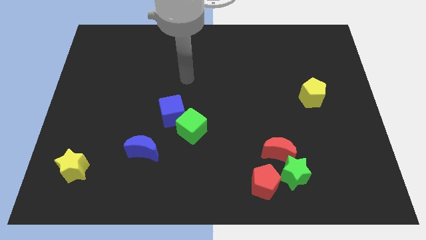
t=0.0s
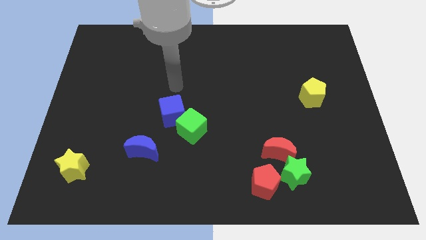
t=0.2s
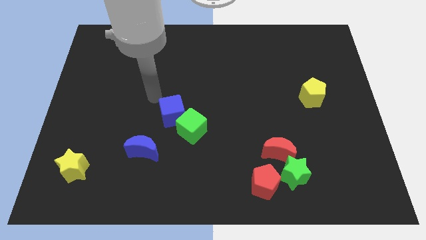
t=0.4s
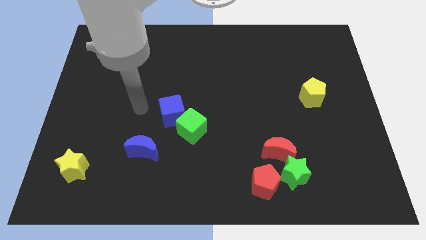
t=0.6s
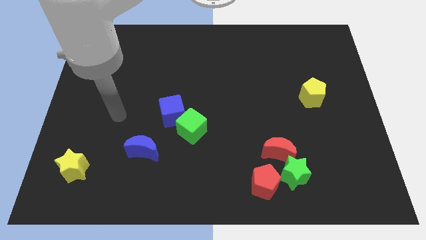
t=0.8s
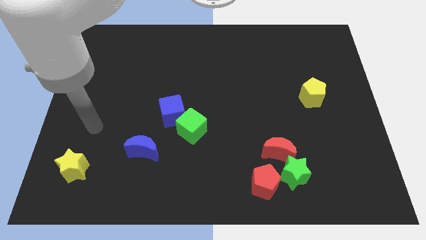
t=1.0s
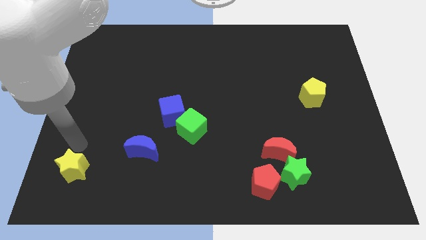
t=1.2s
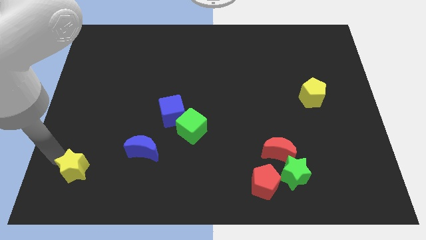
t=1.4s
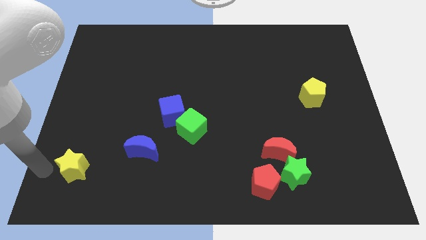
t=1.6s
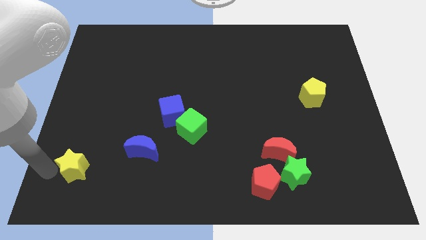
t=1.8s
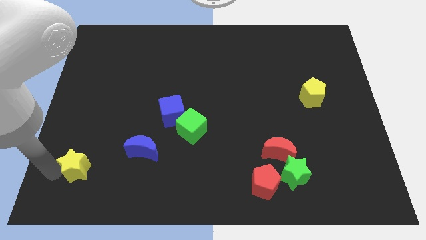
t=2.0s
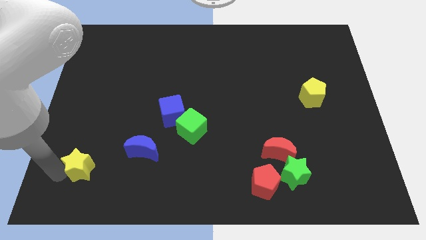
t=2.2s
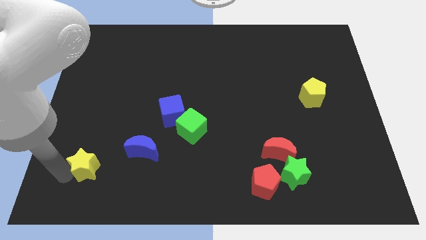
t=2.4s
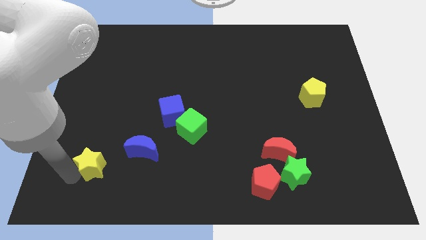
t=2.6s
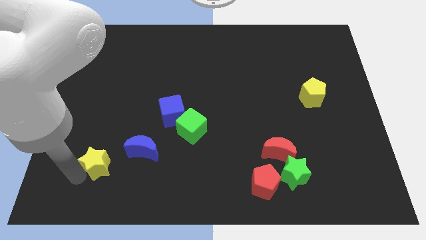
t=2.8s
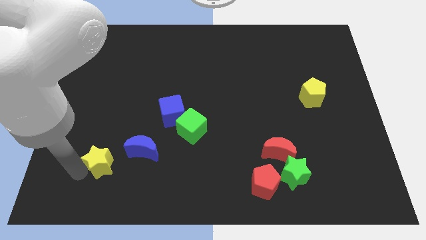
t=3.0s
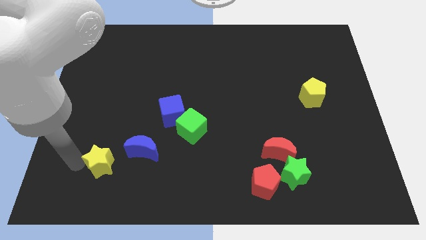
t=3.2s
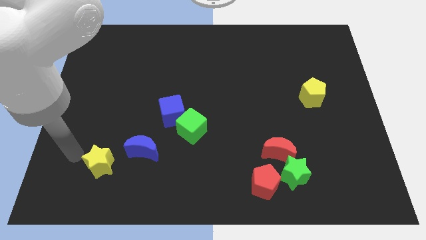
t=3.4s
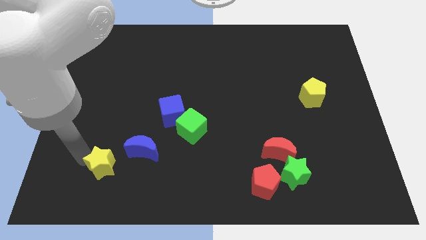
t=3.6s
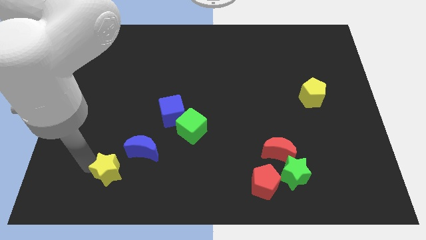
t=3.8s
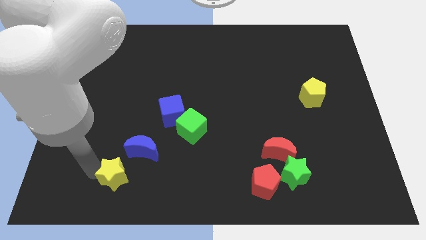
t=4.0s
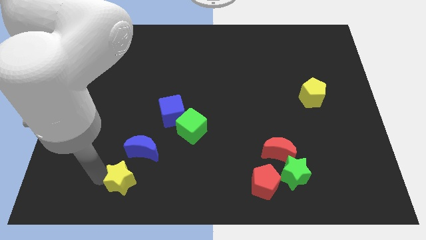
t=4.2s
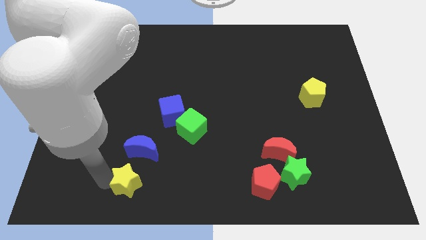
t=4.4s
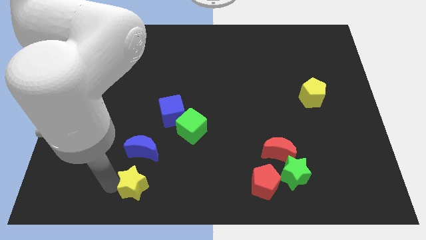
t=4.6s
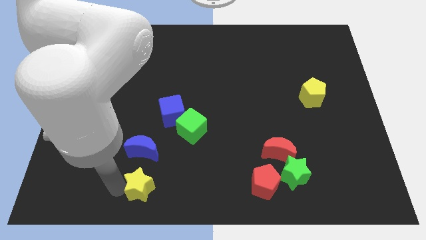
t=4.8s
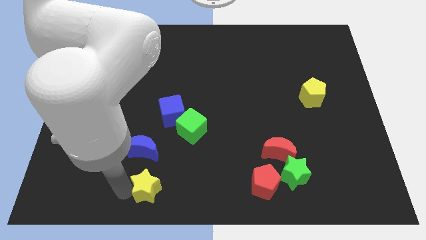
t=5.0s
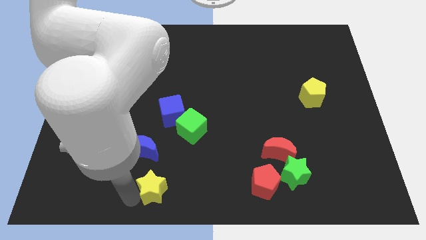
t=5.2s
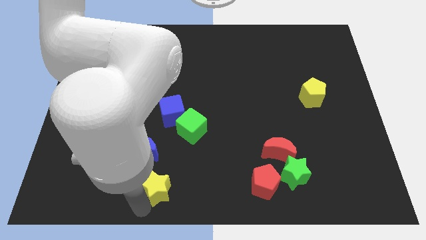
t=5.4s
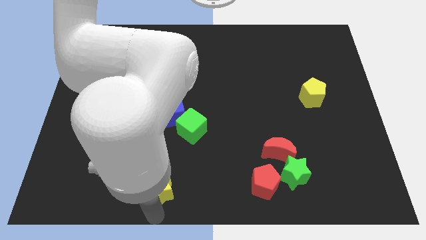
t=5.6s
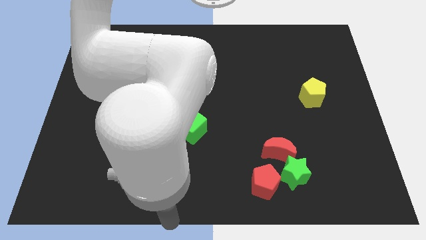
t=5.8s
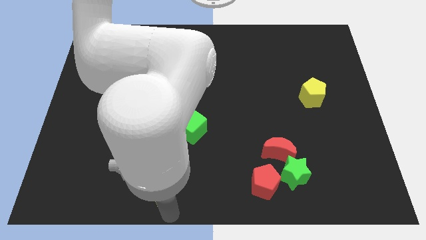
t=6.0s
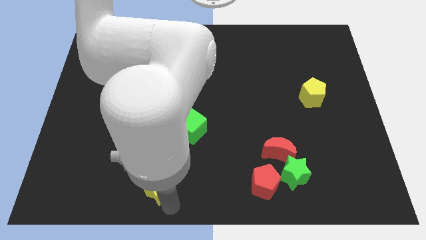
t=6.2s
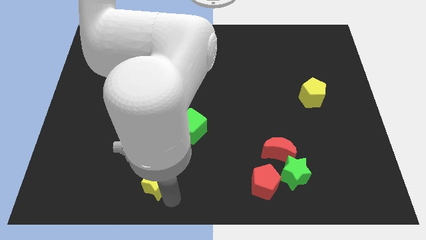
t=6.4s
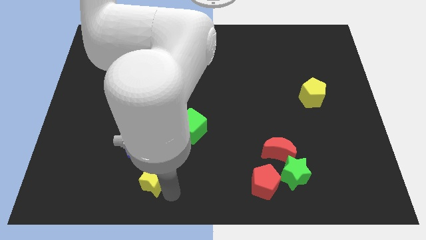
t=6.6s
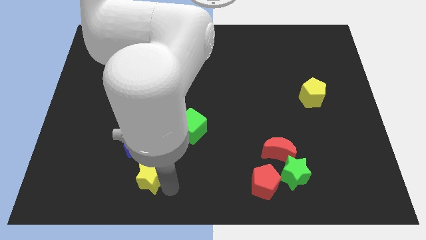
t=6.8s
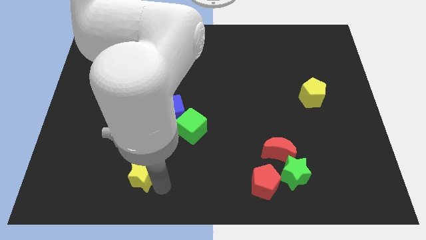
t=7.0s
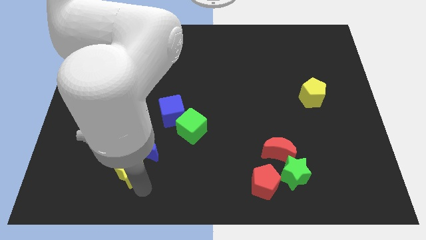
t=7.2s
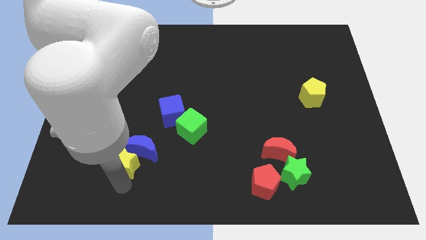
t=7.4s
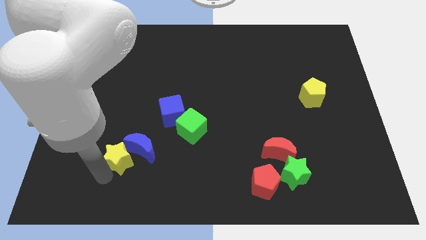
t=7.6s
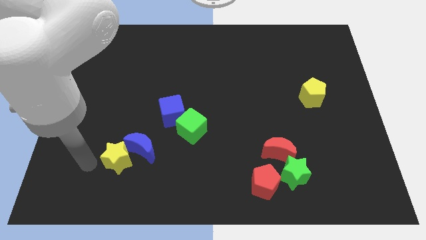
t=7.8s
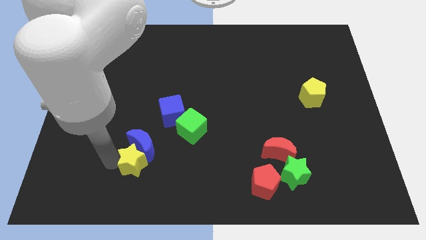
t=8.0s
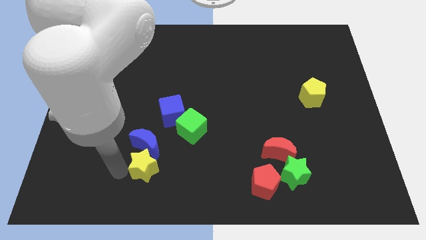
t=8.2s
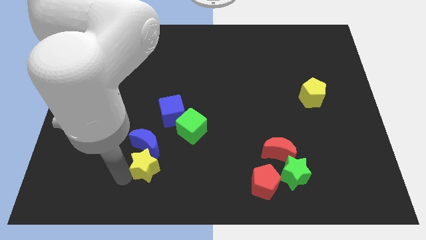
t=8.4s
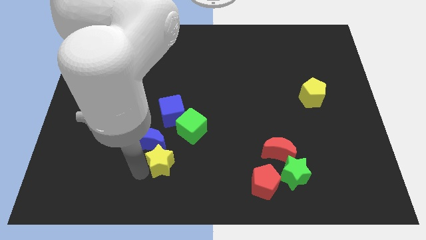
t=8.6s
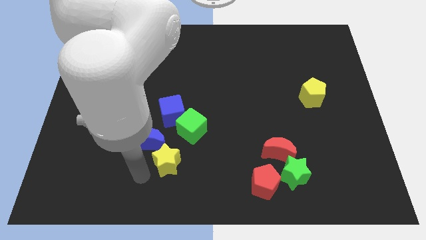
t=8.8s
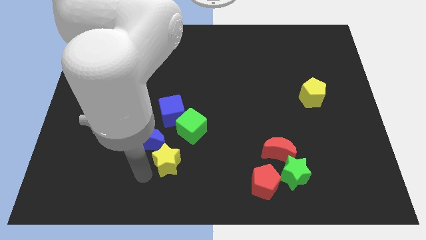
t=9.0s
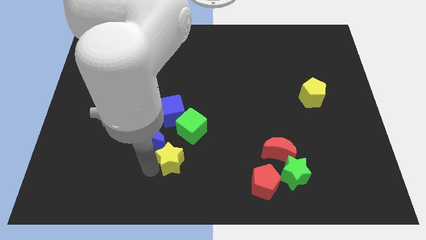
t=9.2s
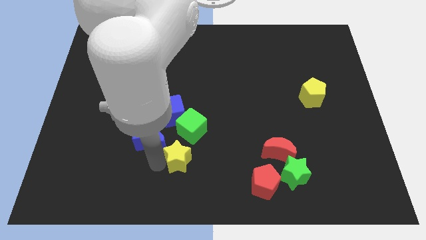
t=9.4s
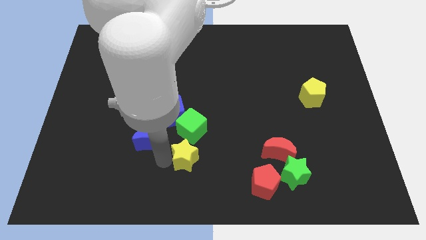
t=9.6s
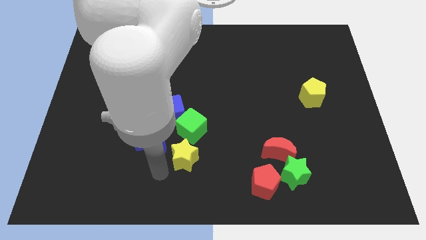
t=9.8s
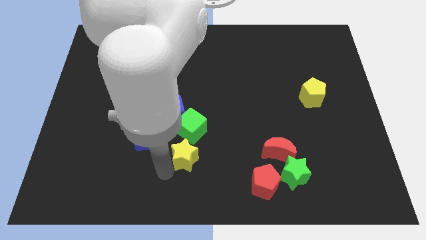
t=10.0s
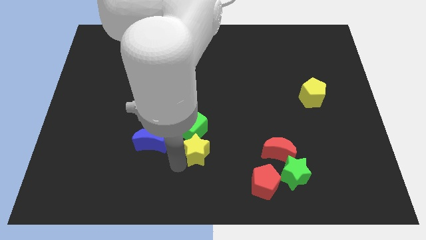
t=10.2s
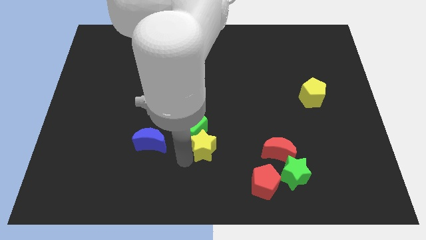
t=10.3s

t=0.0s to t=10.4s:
slide the yellow star to the left of the red moon

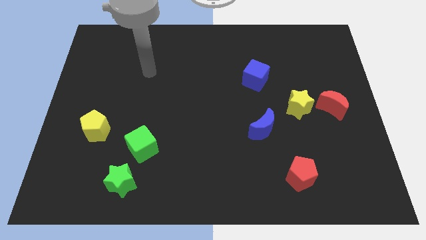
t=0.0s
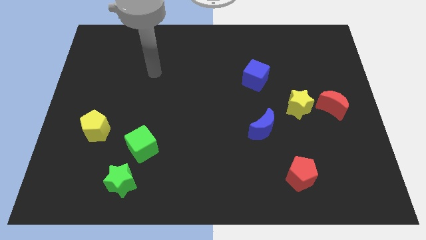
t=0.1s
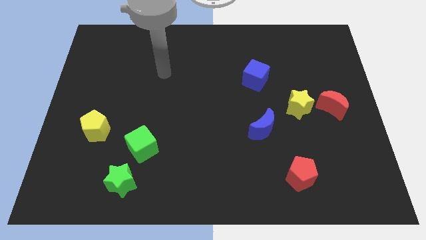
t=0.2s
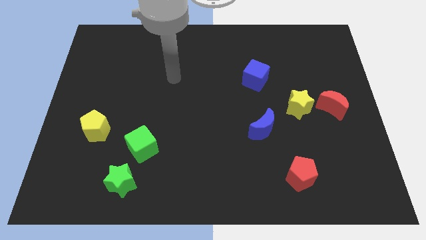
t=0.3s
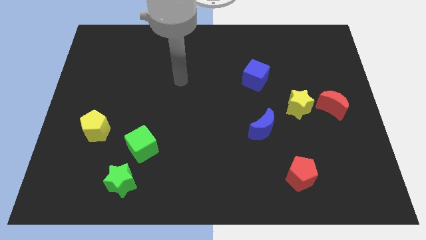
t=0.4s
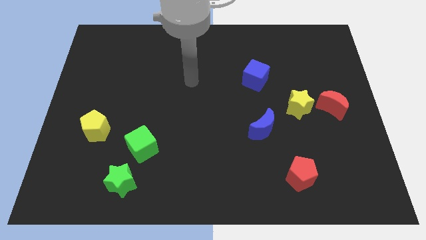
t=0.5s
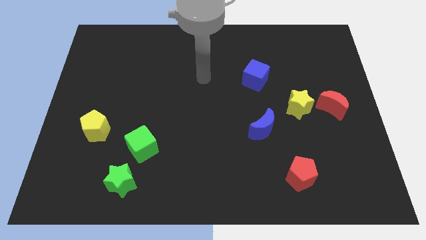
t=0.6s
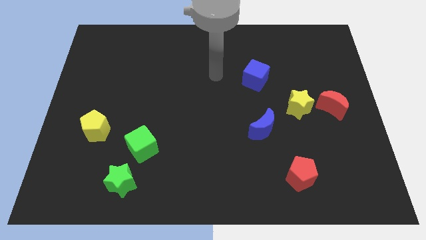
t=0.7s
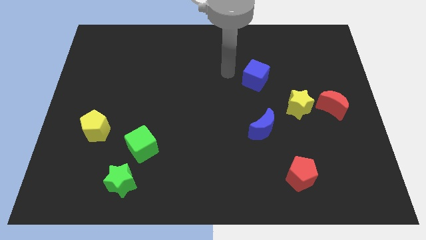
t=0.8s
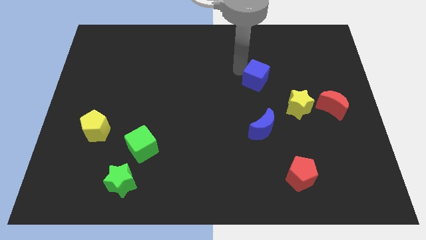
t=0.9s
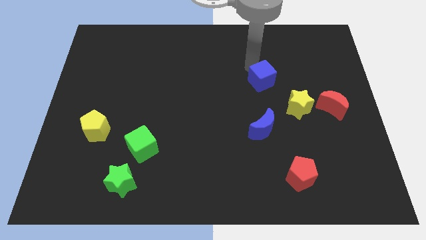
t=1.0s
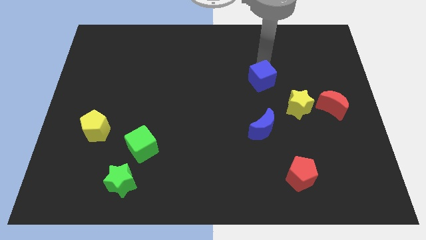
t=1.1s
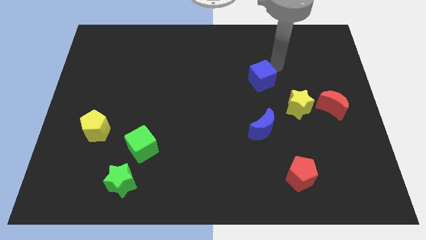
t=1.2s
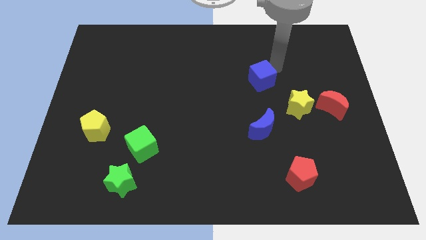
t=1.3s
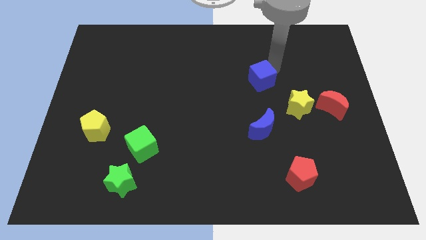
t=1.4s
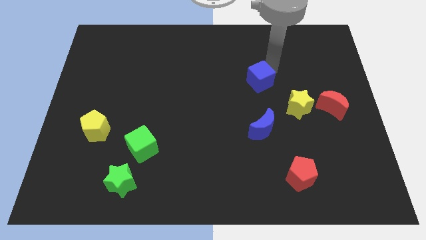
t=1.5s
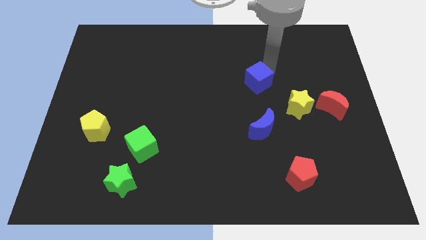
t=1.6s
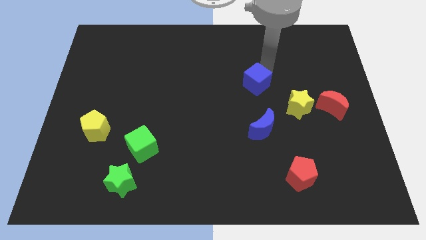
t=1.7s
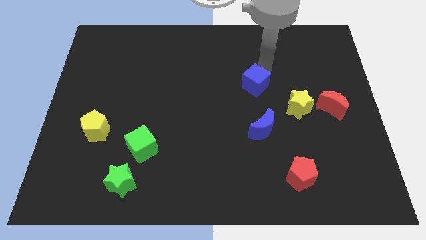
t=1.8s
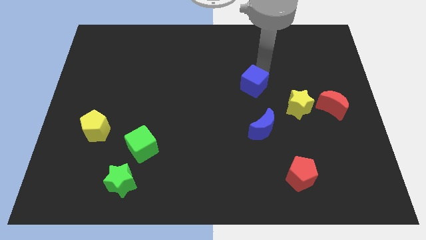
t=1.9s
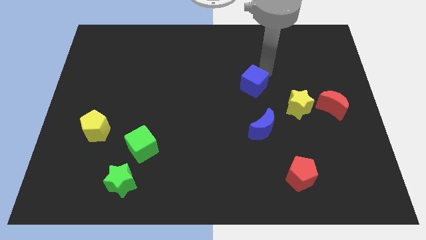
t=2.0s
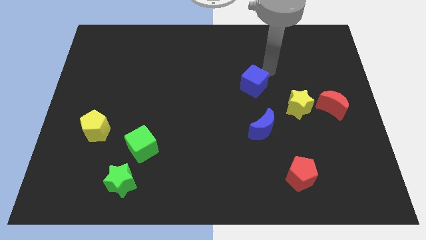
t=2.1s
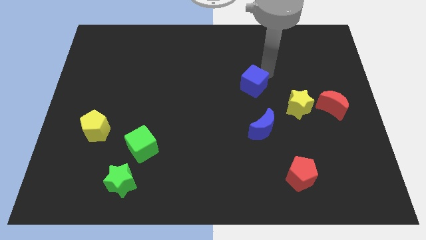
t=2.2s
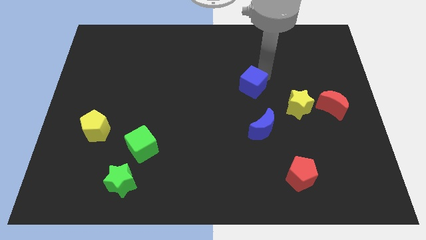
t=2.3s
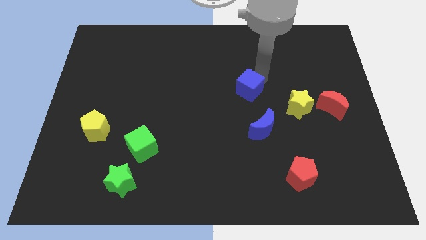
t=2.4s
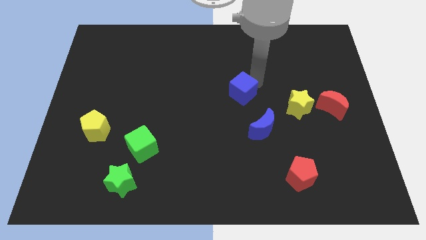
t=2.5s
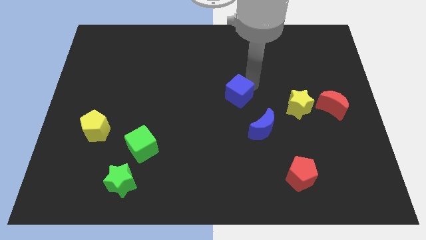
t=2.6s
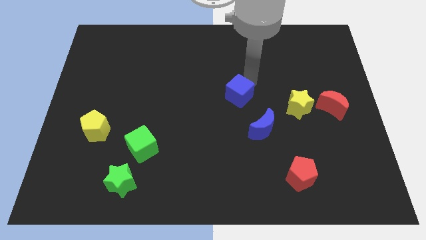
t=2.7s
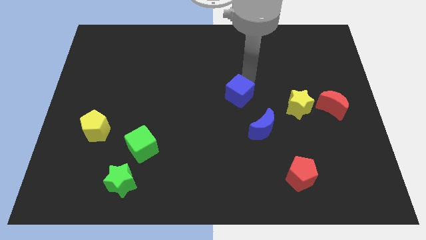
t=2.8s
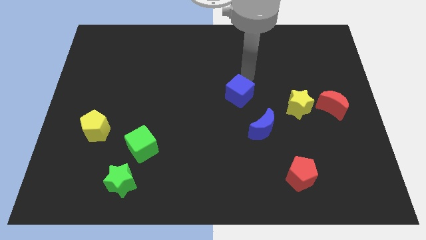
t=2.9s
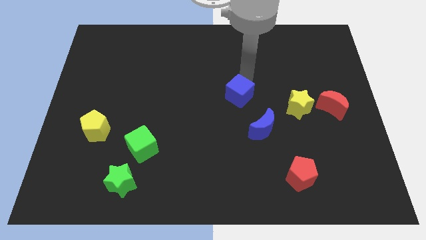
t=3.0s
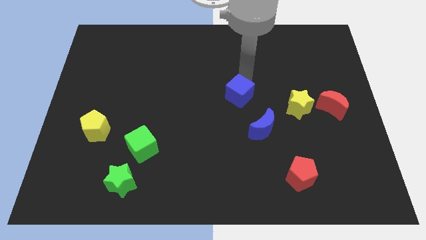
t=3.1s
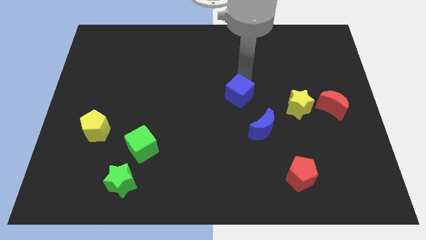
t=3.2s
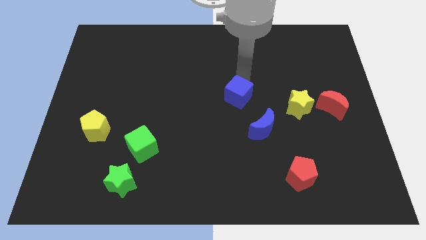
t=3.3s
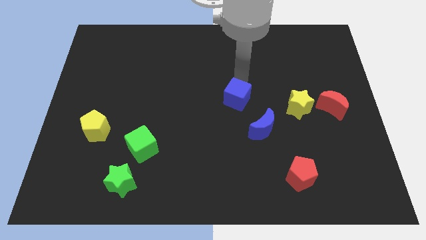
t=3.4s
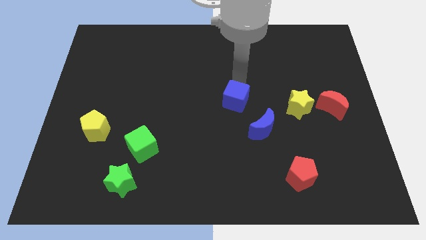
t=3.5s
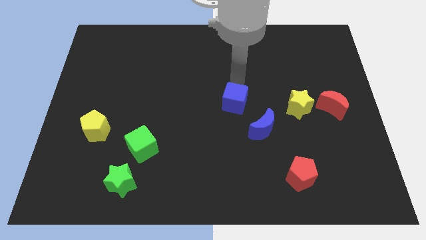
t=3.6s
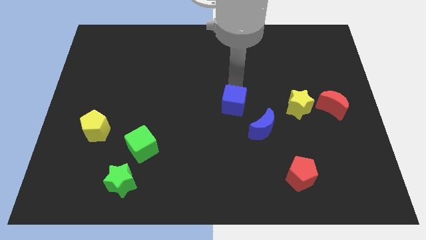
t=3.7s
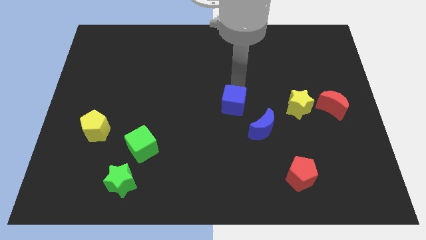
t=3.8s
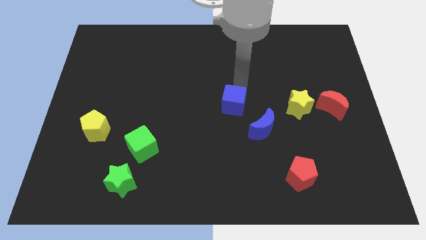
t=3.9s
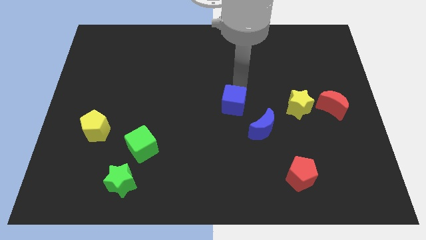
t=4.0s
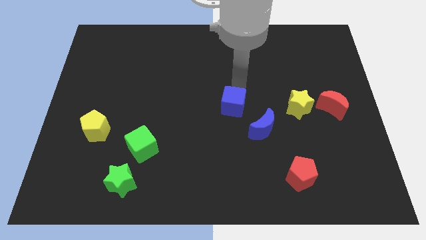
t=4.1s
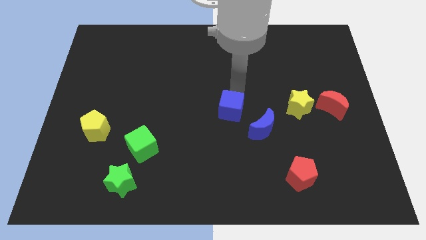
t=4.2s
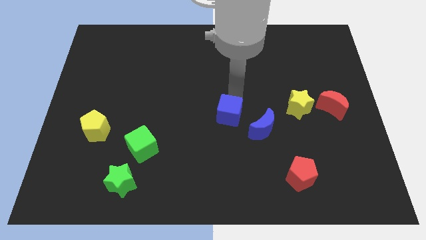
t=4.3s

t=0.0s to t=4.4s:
slide the blue cube to the left side of the blue moon
